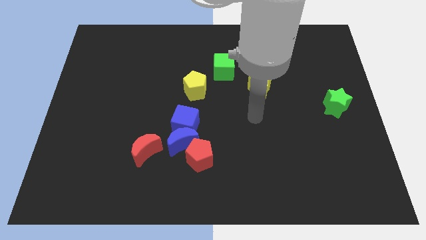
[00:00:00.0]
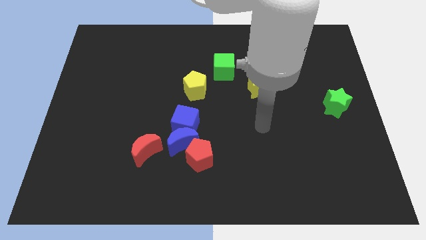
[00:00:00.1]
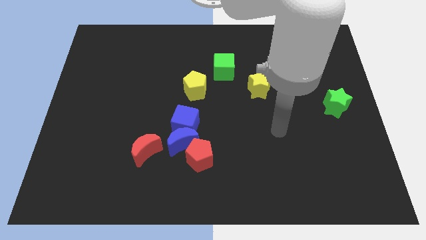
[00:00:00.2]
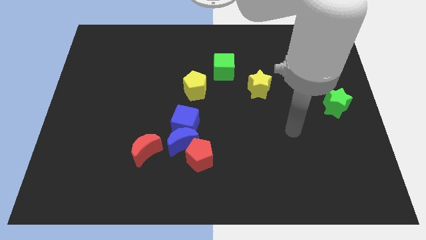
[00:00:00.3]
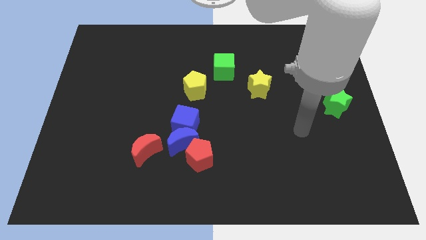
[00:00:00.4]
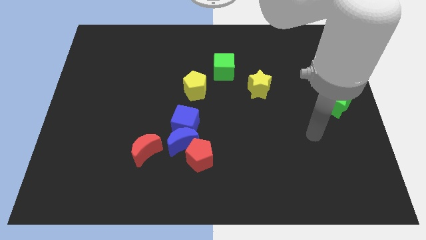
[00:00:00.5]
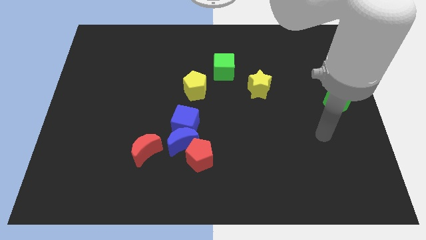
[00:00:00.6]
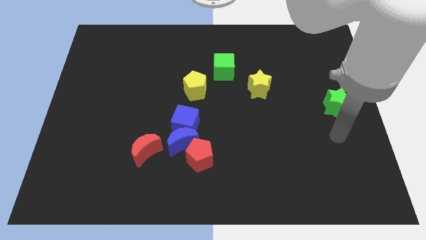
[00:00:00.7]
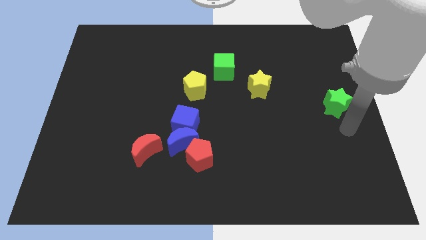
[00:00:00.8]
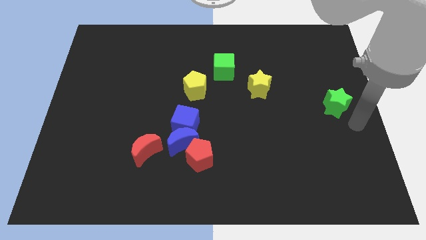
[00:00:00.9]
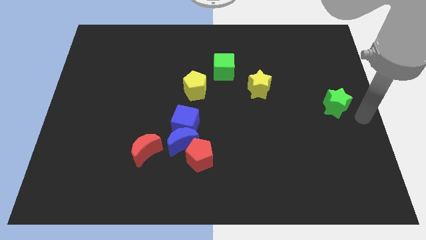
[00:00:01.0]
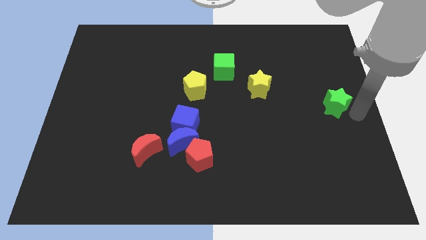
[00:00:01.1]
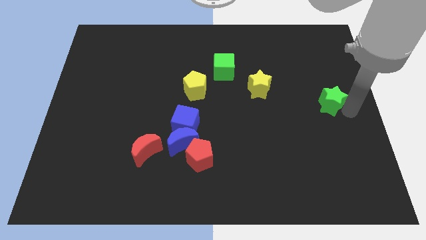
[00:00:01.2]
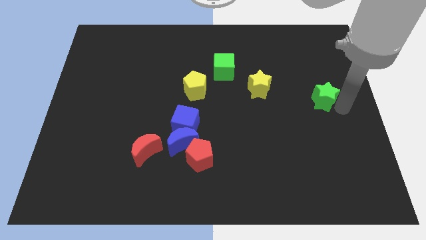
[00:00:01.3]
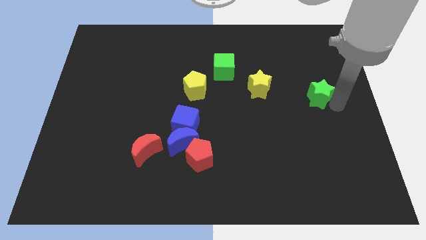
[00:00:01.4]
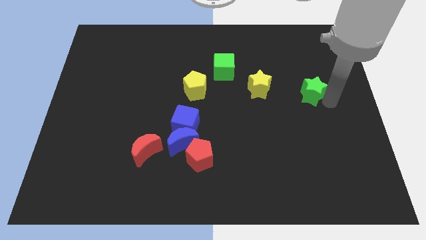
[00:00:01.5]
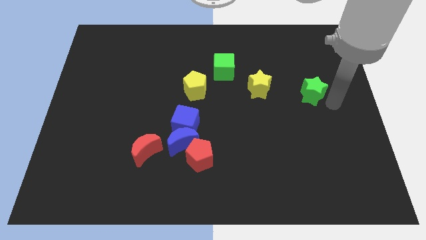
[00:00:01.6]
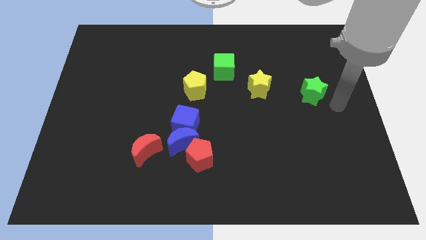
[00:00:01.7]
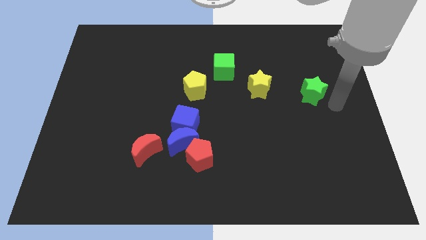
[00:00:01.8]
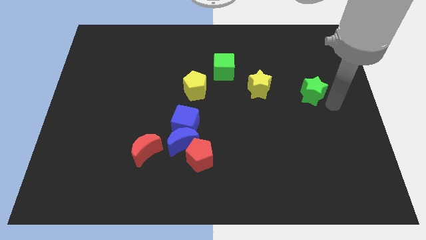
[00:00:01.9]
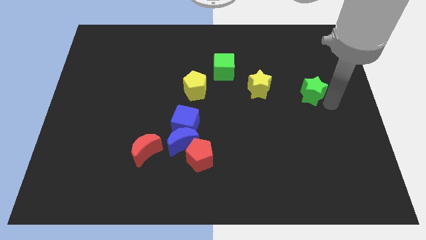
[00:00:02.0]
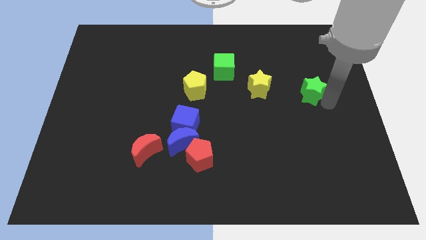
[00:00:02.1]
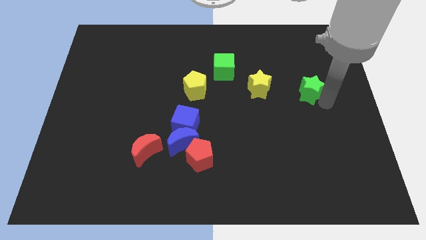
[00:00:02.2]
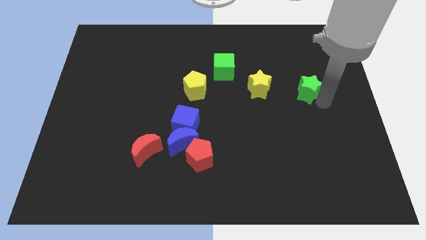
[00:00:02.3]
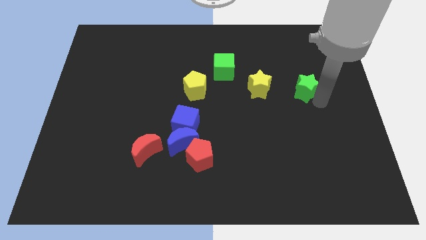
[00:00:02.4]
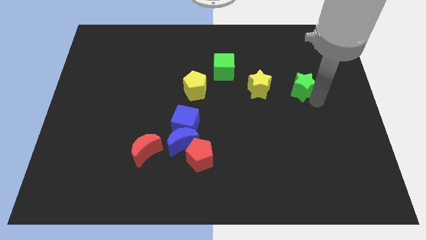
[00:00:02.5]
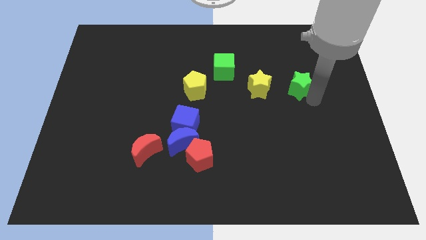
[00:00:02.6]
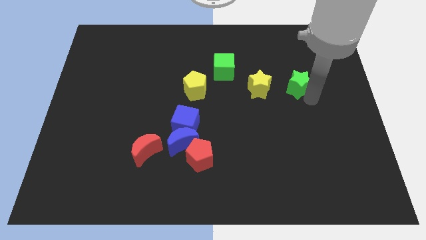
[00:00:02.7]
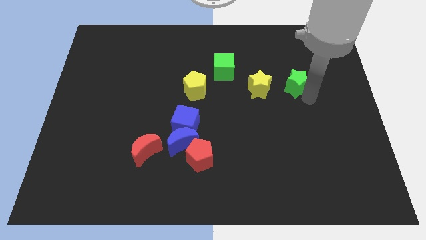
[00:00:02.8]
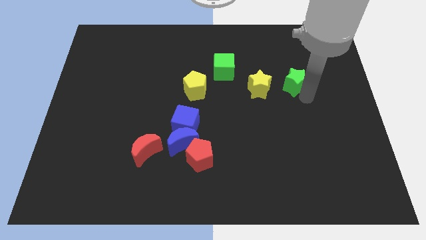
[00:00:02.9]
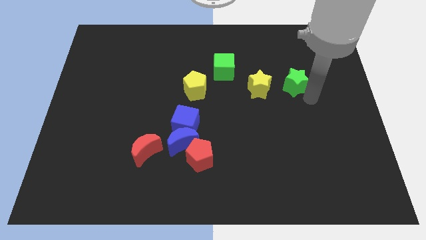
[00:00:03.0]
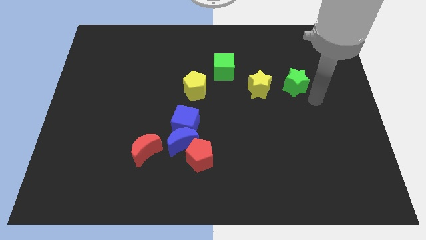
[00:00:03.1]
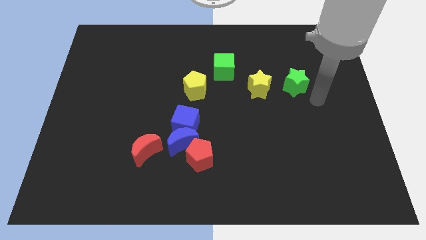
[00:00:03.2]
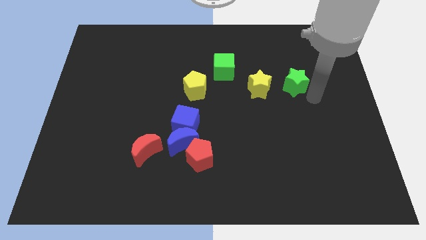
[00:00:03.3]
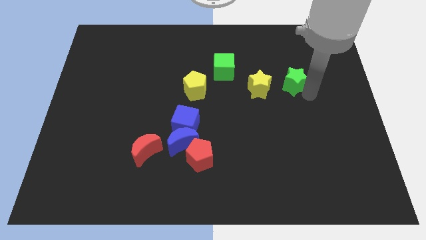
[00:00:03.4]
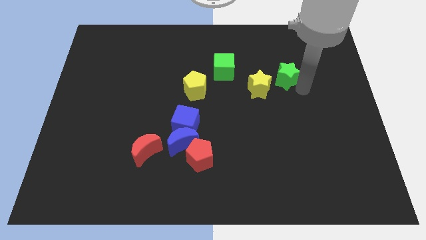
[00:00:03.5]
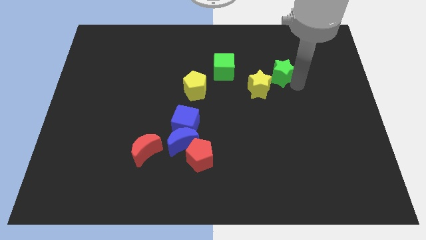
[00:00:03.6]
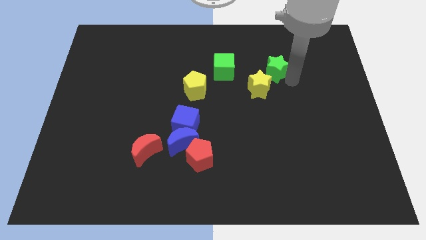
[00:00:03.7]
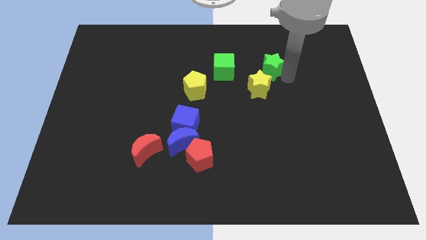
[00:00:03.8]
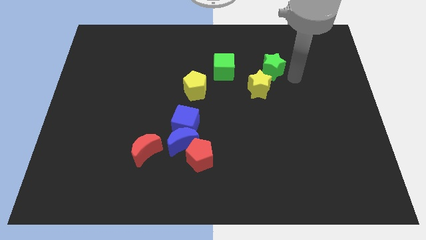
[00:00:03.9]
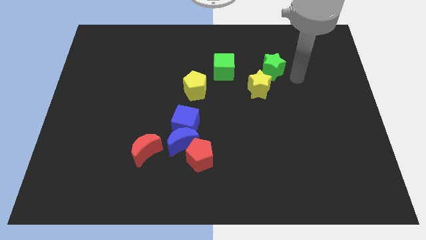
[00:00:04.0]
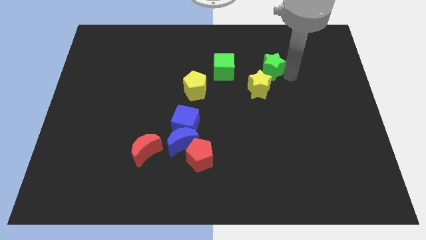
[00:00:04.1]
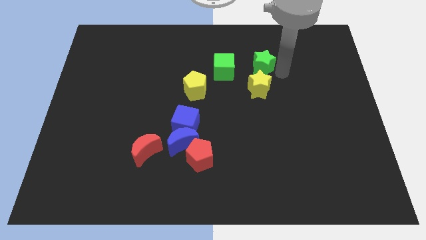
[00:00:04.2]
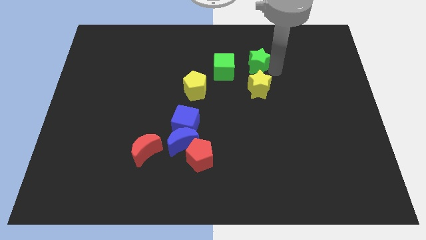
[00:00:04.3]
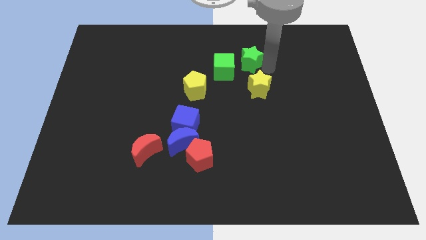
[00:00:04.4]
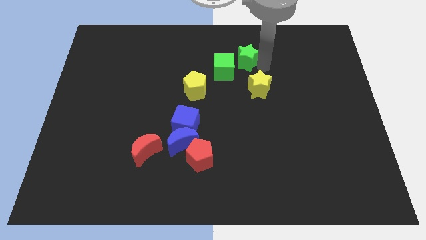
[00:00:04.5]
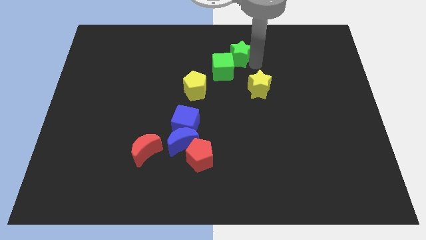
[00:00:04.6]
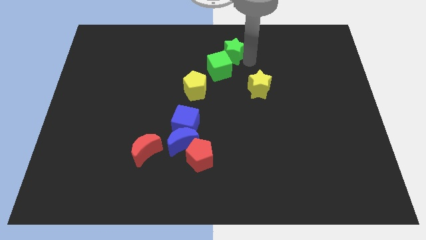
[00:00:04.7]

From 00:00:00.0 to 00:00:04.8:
push the green star to the top

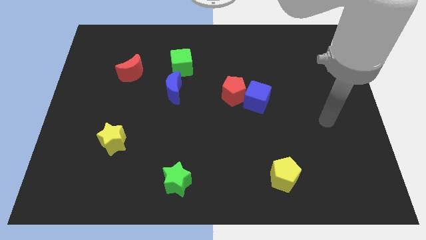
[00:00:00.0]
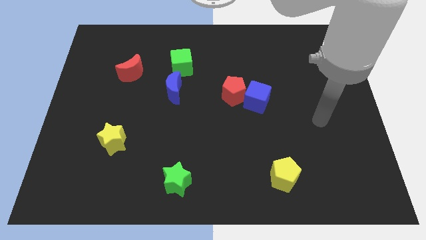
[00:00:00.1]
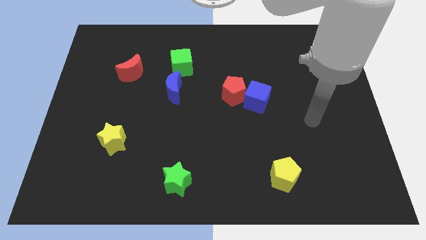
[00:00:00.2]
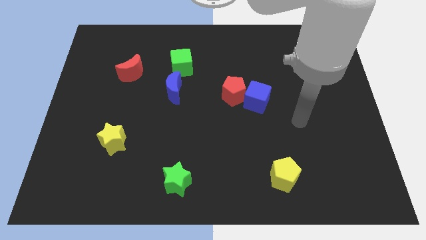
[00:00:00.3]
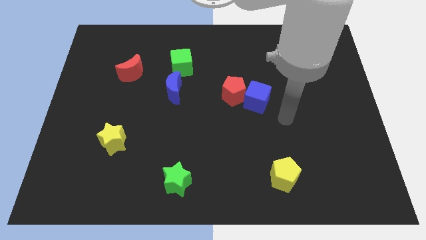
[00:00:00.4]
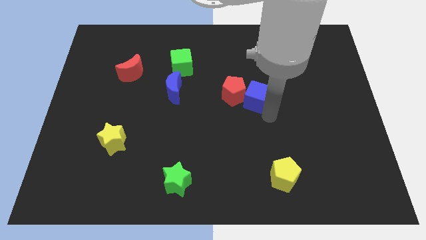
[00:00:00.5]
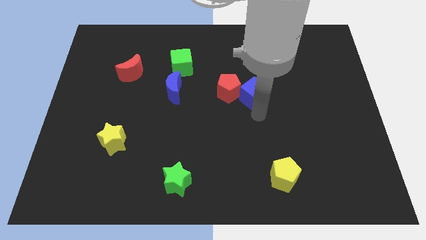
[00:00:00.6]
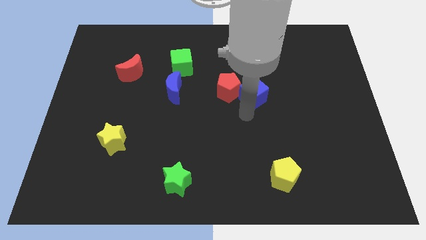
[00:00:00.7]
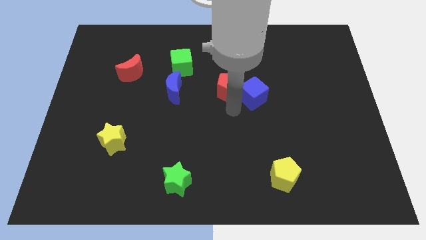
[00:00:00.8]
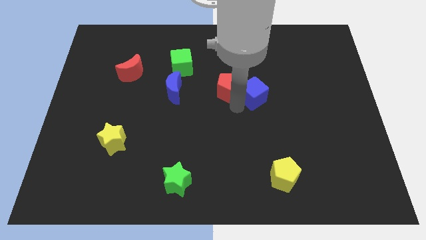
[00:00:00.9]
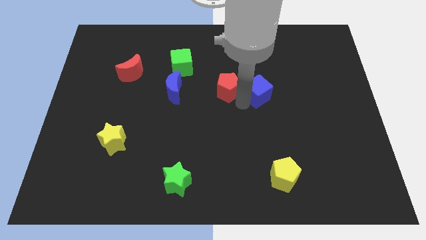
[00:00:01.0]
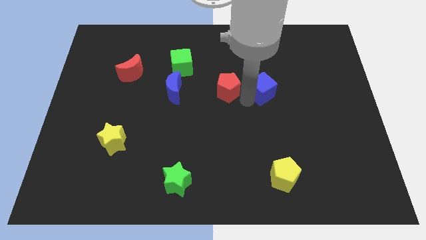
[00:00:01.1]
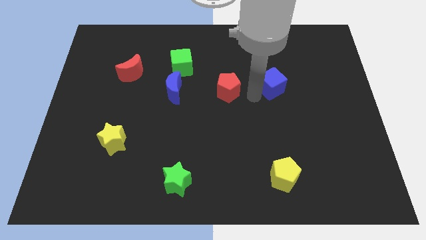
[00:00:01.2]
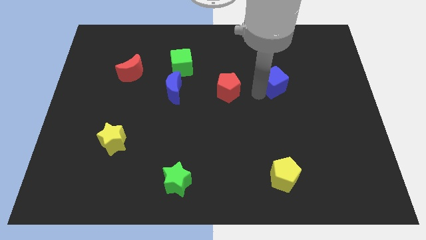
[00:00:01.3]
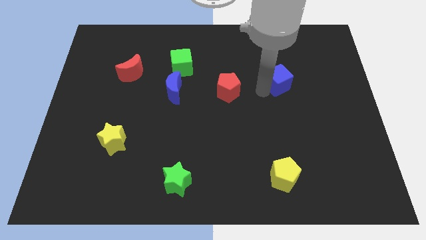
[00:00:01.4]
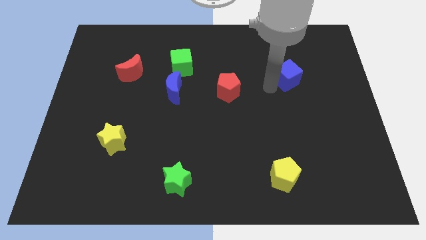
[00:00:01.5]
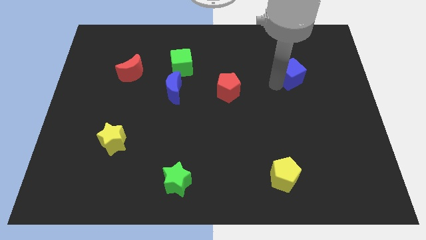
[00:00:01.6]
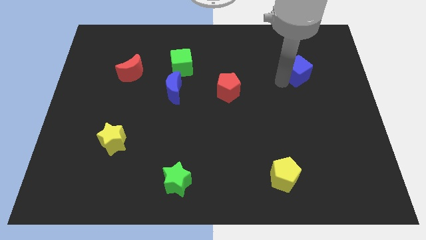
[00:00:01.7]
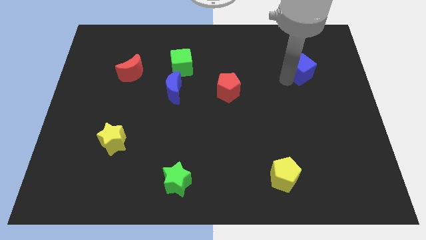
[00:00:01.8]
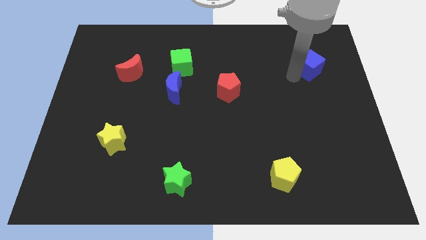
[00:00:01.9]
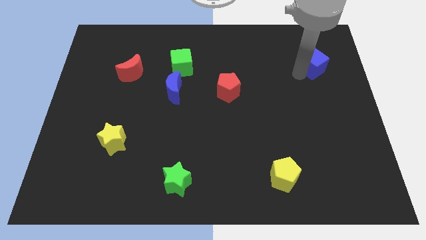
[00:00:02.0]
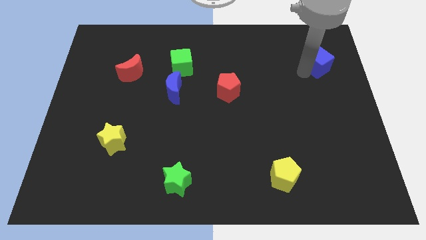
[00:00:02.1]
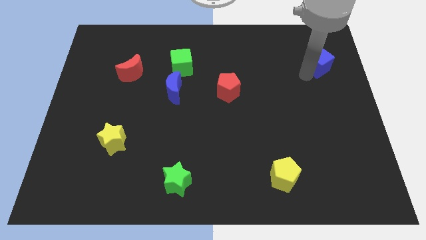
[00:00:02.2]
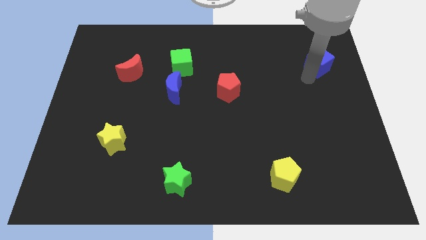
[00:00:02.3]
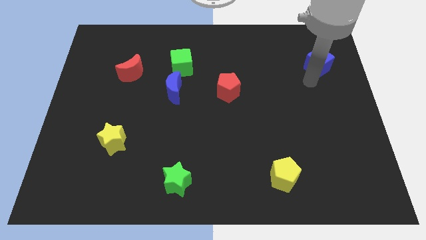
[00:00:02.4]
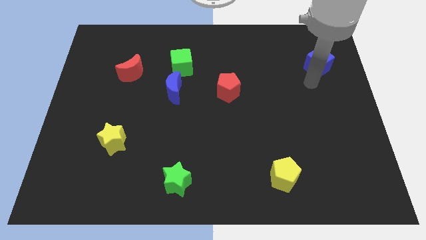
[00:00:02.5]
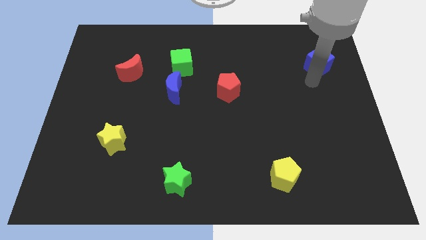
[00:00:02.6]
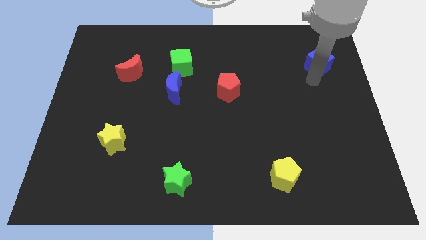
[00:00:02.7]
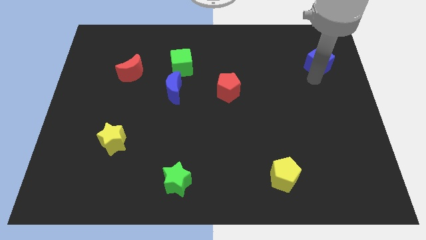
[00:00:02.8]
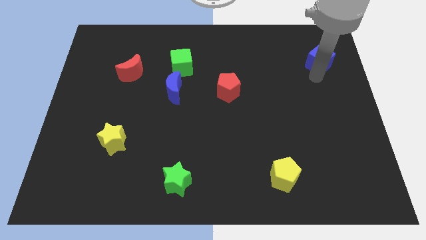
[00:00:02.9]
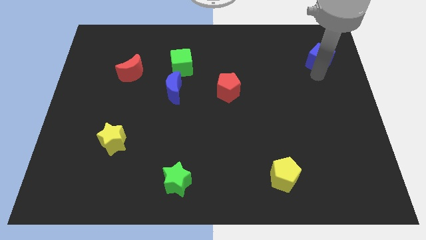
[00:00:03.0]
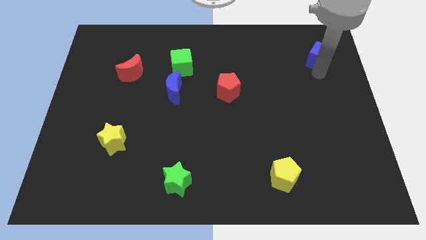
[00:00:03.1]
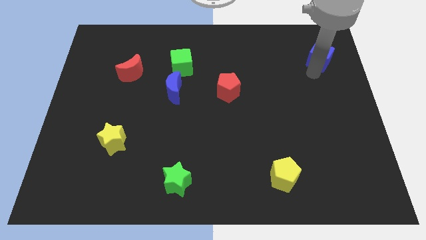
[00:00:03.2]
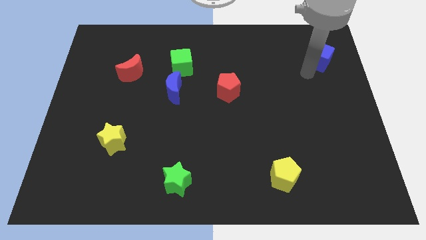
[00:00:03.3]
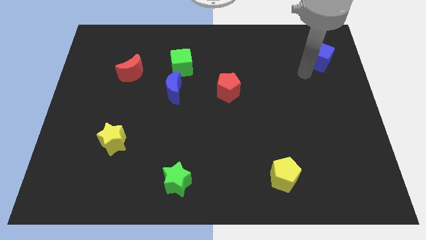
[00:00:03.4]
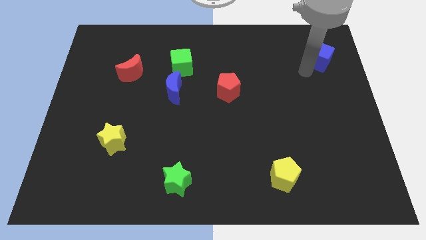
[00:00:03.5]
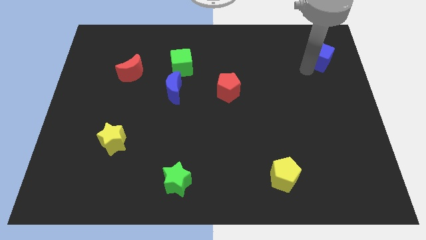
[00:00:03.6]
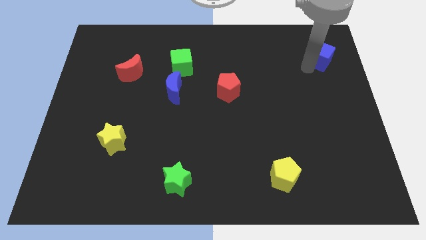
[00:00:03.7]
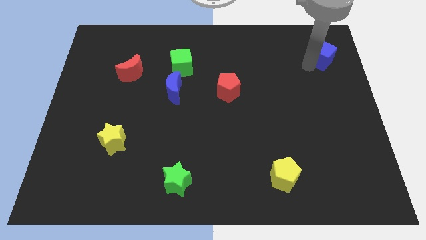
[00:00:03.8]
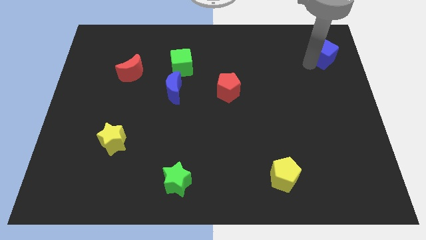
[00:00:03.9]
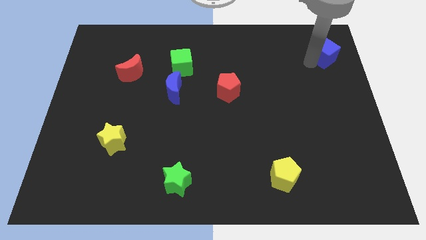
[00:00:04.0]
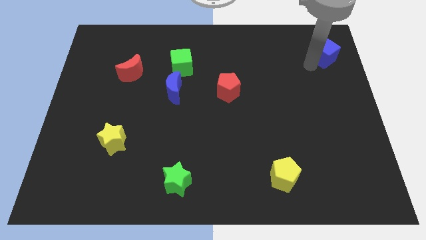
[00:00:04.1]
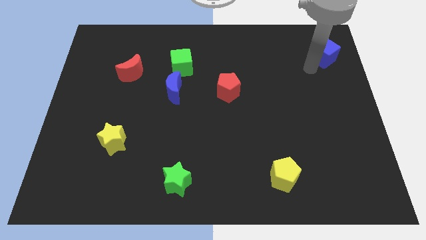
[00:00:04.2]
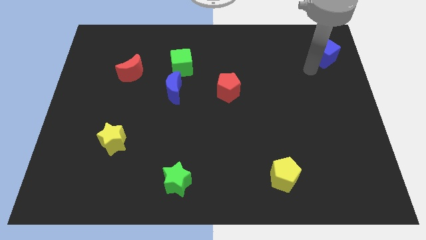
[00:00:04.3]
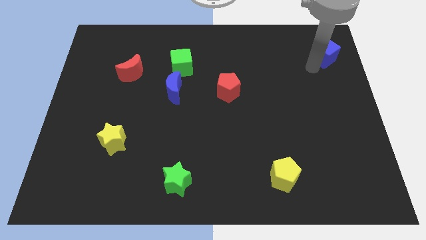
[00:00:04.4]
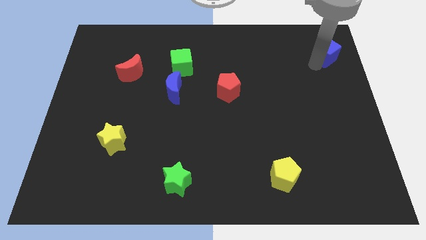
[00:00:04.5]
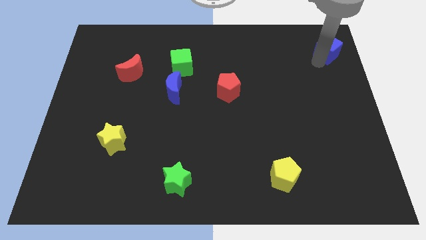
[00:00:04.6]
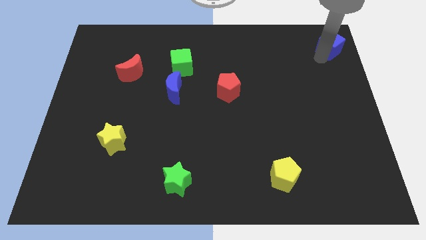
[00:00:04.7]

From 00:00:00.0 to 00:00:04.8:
move the blue cube to the upper right corner
